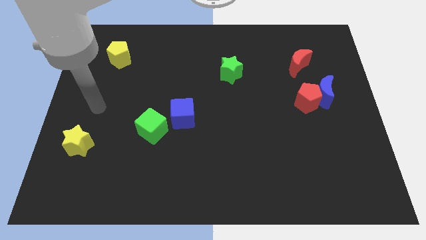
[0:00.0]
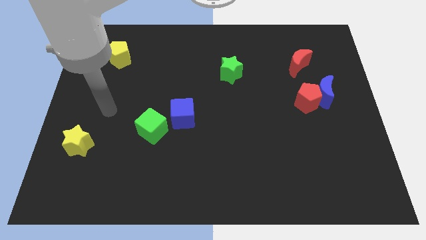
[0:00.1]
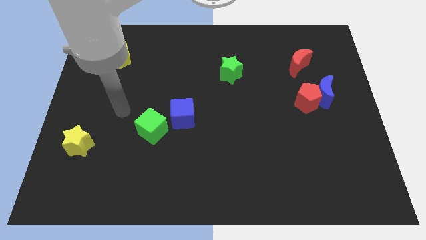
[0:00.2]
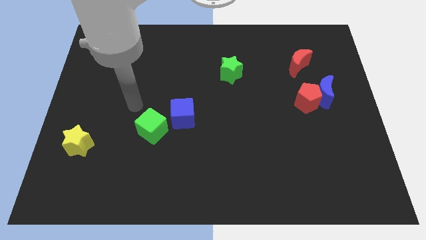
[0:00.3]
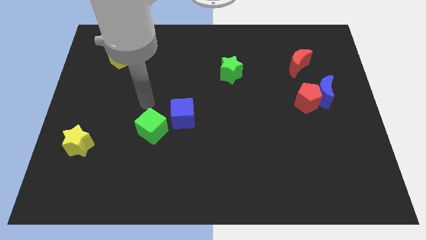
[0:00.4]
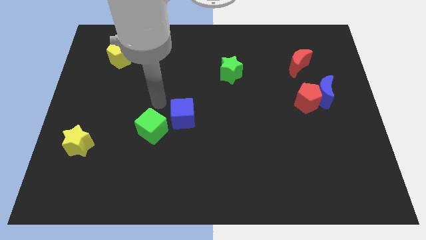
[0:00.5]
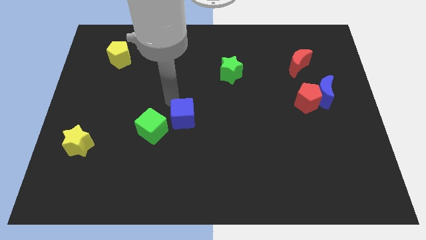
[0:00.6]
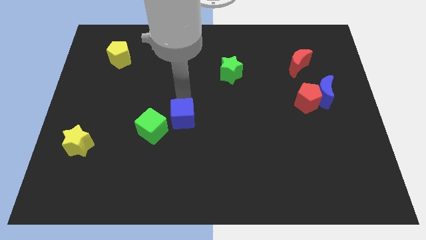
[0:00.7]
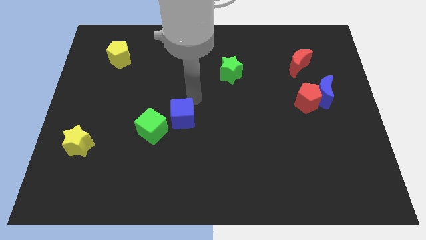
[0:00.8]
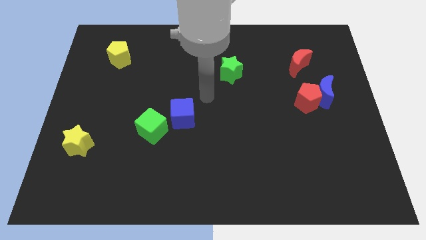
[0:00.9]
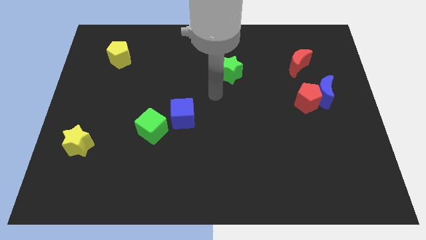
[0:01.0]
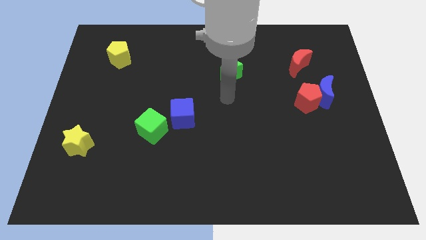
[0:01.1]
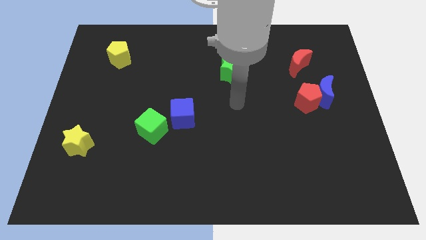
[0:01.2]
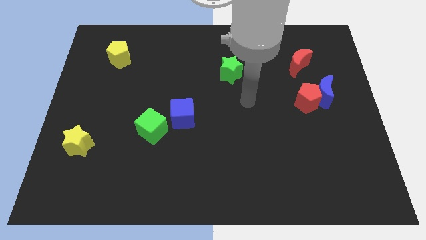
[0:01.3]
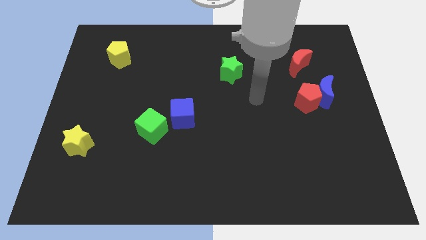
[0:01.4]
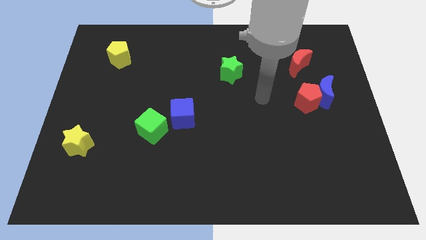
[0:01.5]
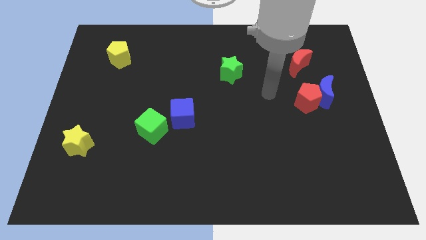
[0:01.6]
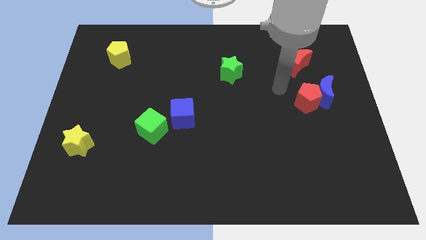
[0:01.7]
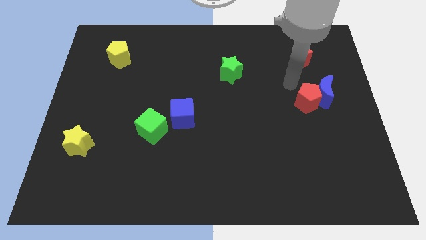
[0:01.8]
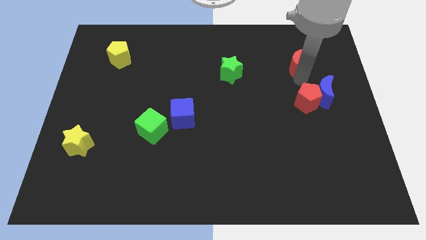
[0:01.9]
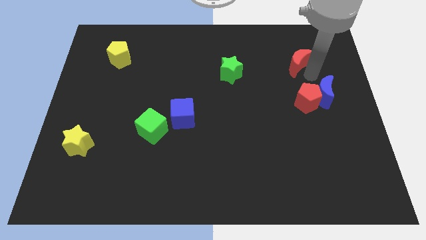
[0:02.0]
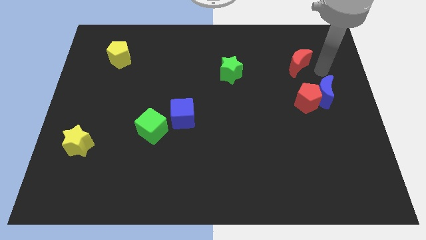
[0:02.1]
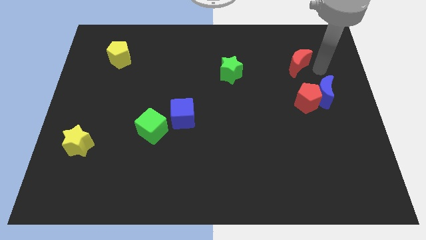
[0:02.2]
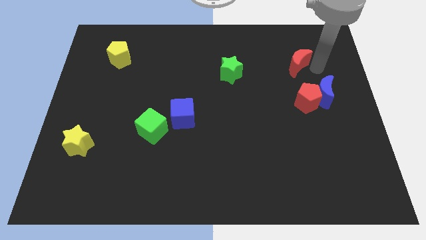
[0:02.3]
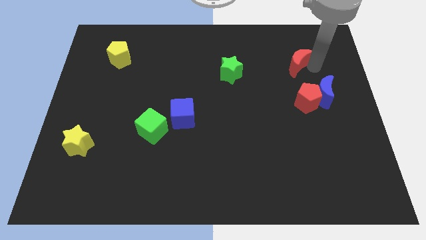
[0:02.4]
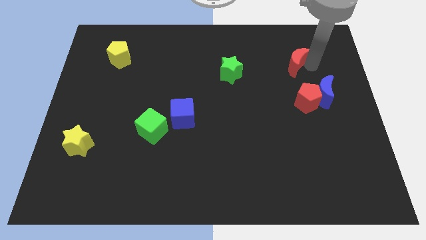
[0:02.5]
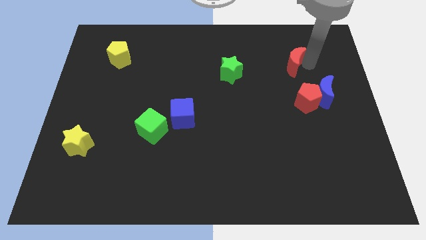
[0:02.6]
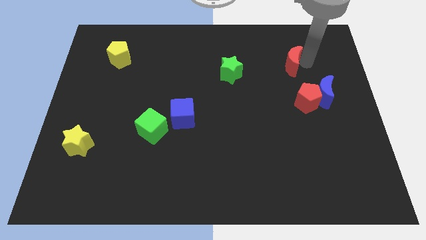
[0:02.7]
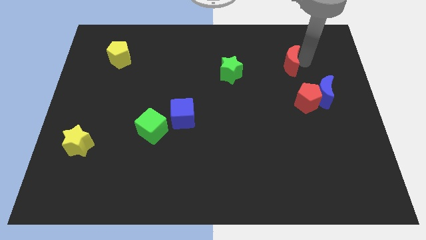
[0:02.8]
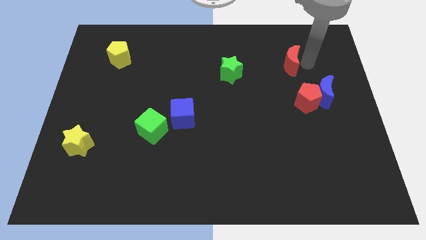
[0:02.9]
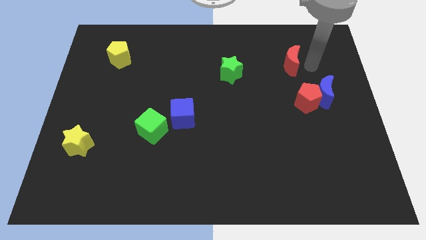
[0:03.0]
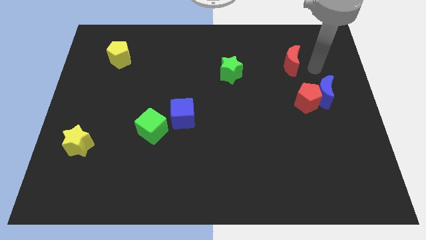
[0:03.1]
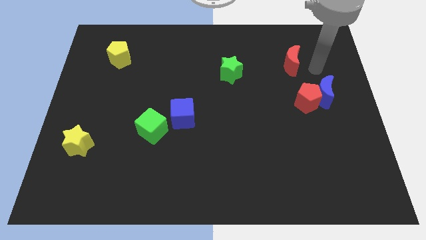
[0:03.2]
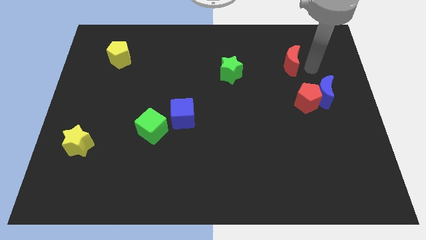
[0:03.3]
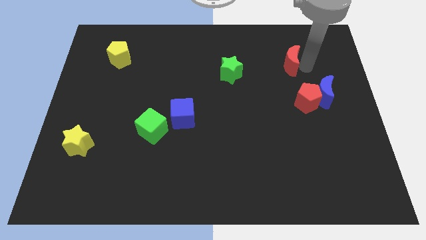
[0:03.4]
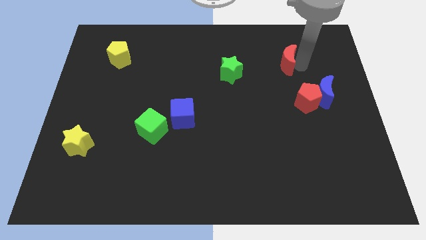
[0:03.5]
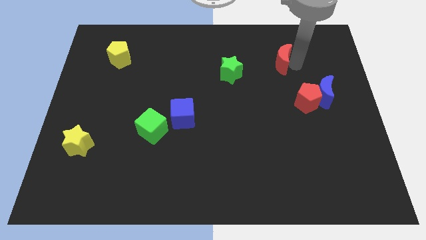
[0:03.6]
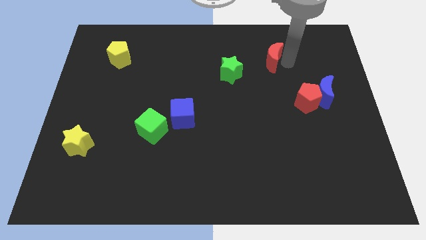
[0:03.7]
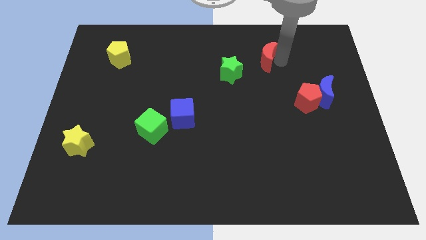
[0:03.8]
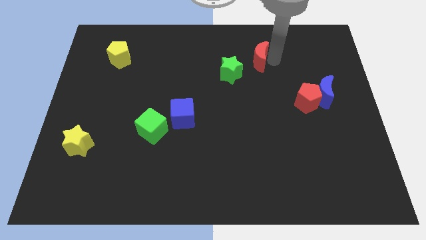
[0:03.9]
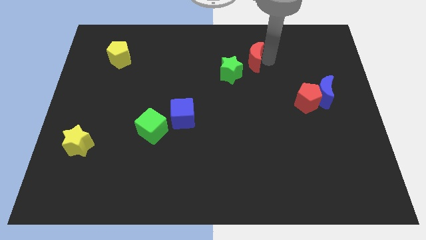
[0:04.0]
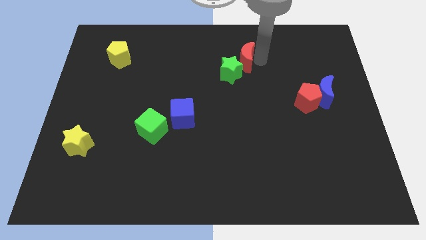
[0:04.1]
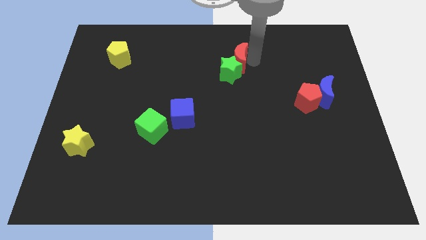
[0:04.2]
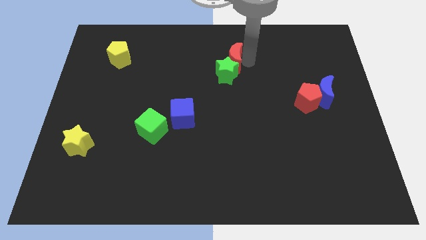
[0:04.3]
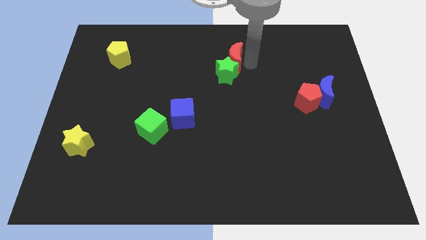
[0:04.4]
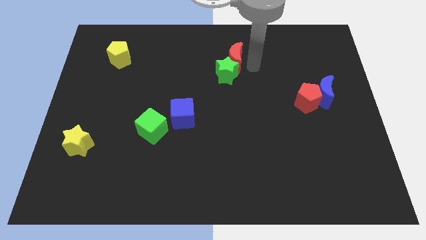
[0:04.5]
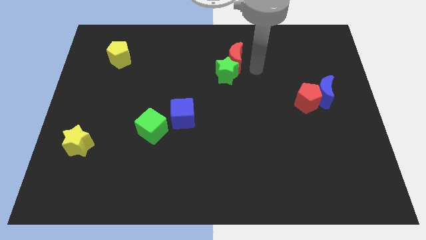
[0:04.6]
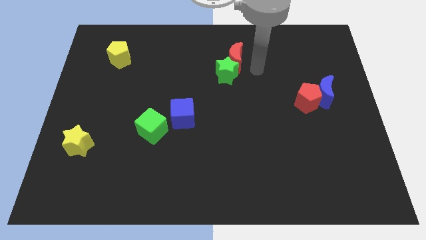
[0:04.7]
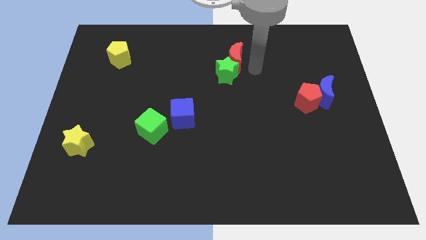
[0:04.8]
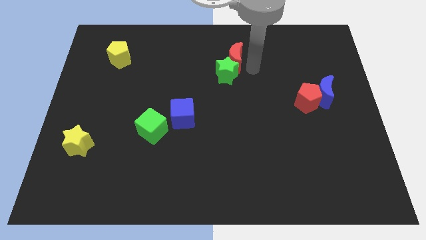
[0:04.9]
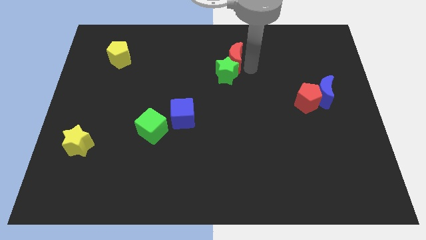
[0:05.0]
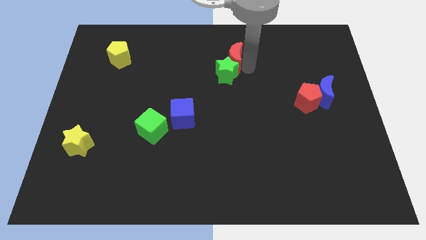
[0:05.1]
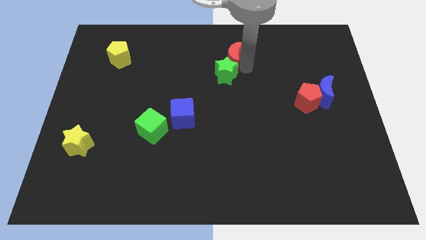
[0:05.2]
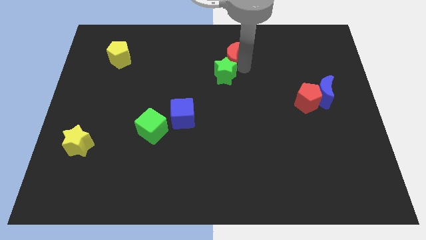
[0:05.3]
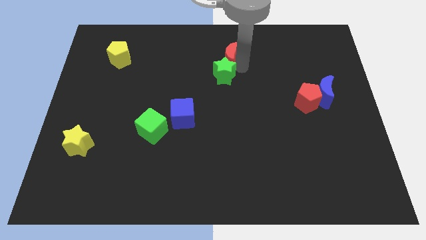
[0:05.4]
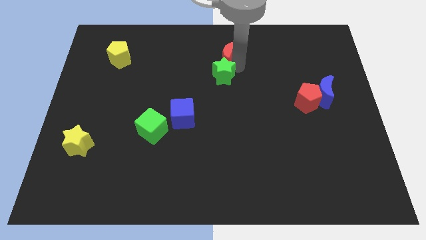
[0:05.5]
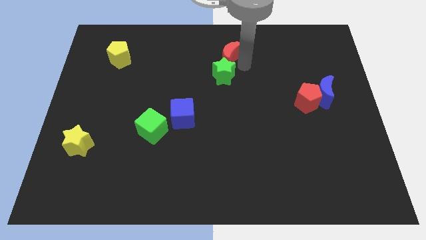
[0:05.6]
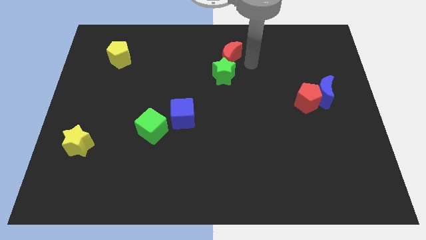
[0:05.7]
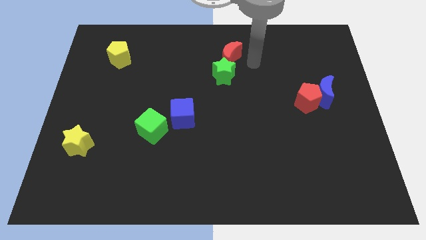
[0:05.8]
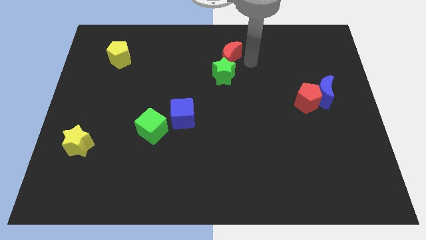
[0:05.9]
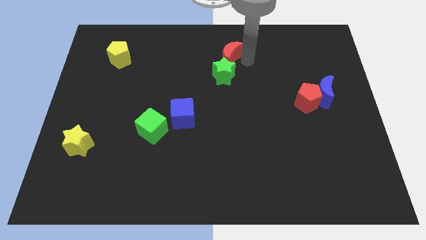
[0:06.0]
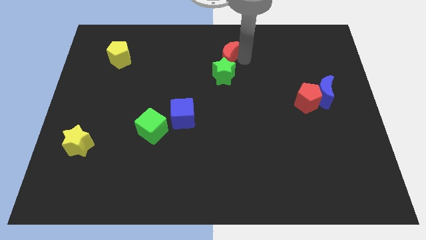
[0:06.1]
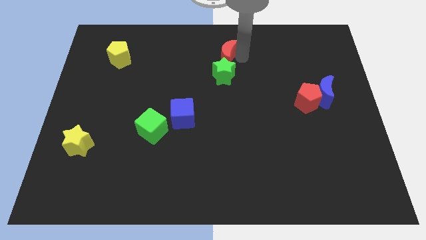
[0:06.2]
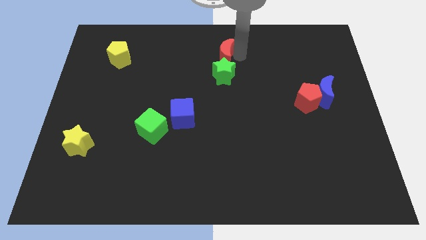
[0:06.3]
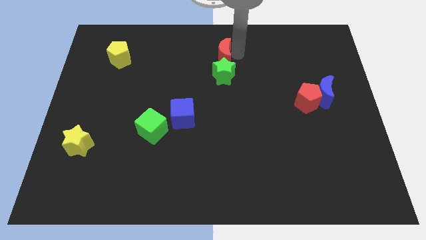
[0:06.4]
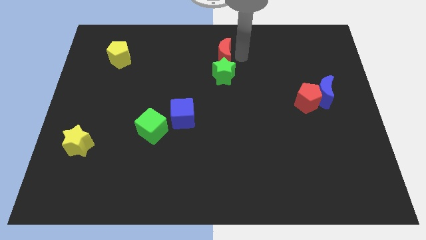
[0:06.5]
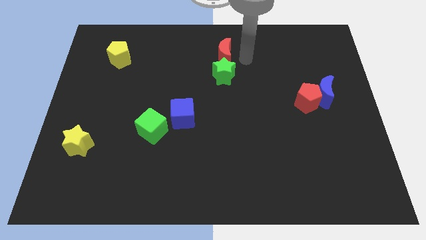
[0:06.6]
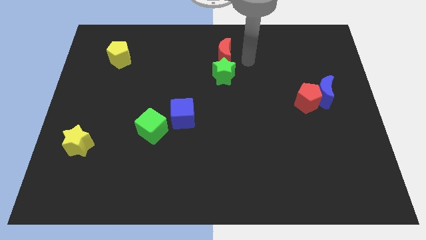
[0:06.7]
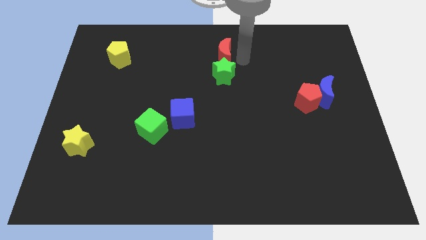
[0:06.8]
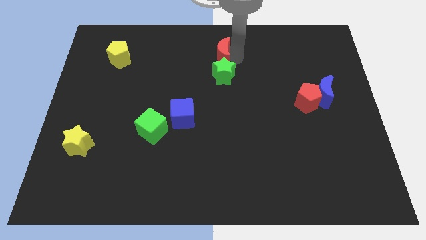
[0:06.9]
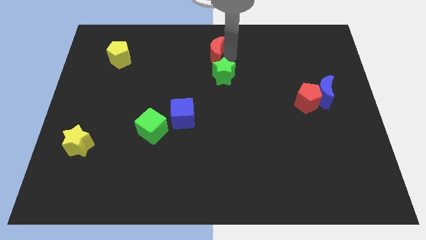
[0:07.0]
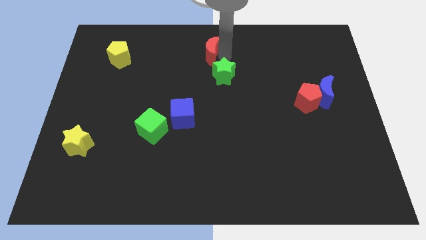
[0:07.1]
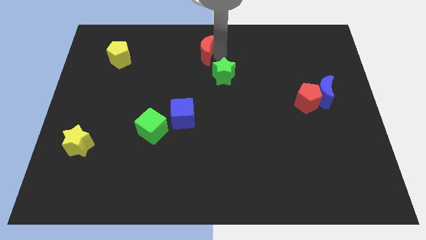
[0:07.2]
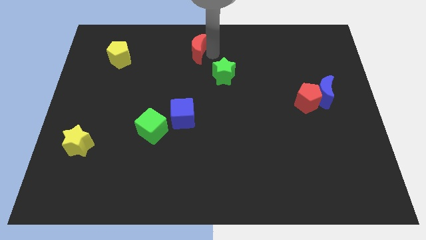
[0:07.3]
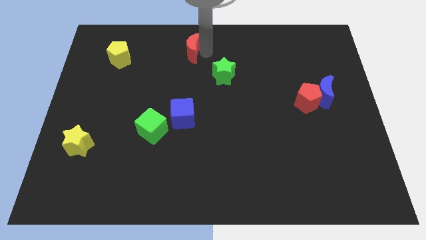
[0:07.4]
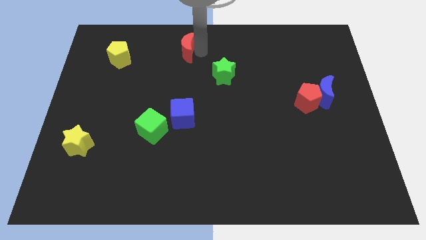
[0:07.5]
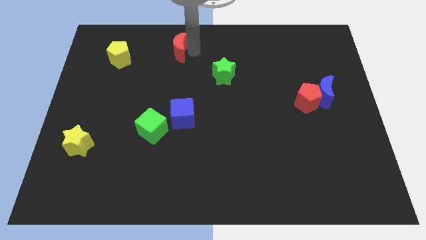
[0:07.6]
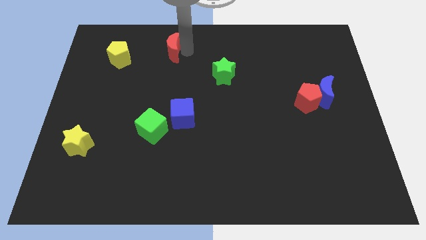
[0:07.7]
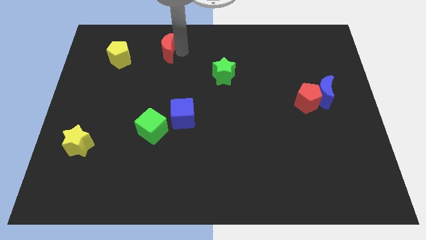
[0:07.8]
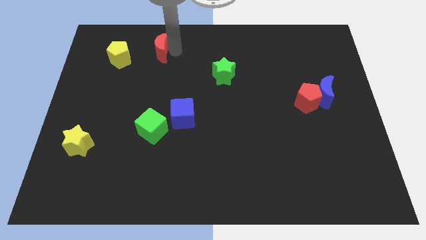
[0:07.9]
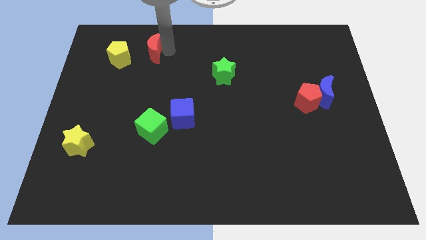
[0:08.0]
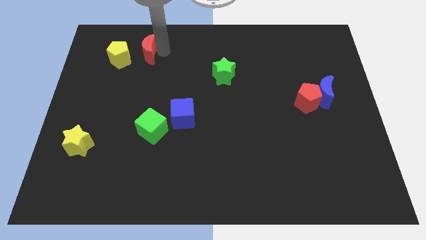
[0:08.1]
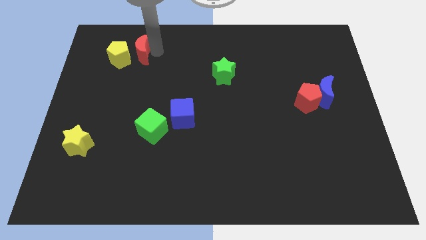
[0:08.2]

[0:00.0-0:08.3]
push the red moon close to the yellow pentagon
